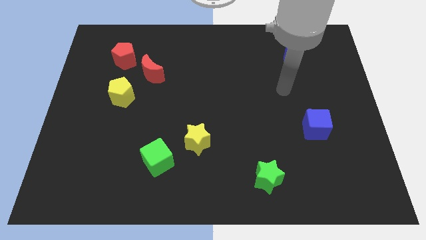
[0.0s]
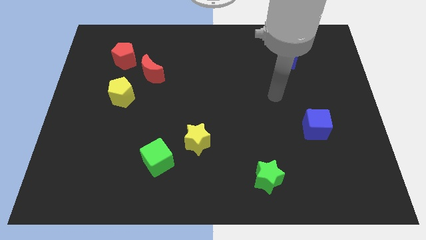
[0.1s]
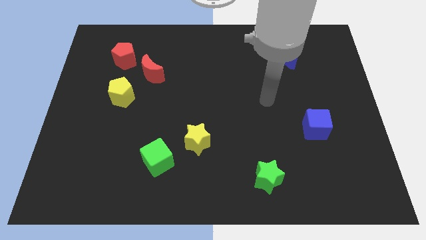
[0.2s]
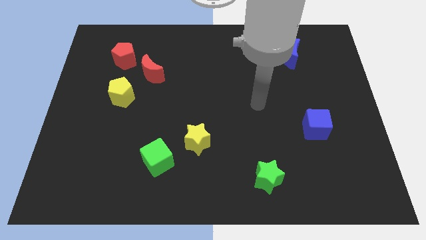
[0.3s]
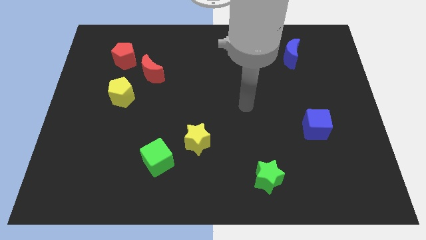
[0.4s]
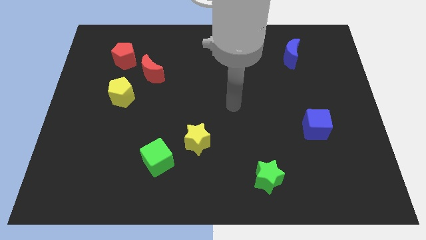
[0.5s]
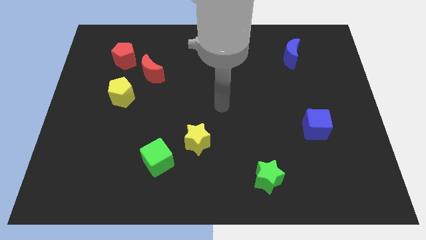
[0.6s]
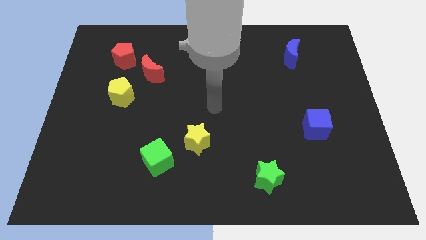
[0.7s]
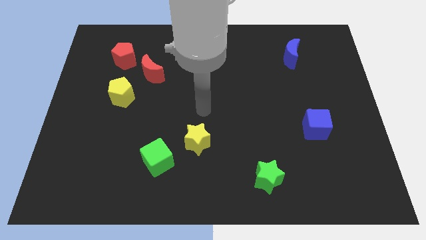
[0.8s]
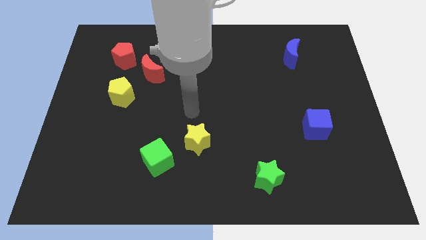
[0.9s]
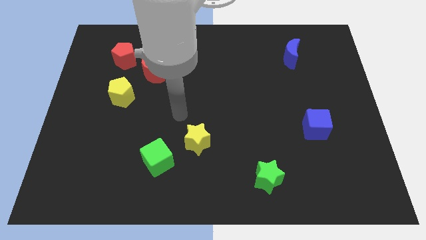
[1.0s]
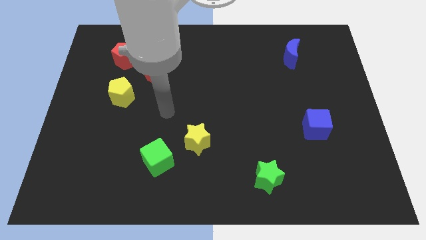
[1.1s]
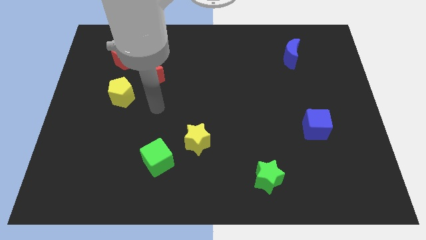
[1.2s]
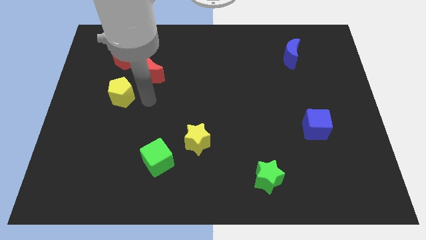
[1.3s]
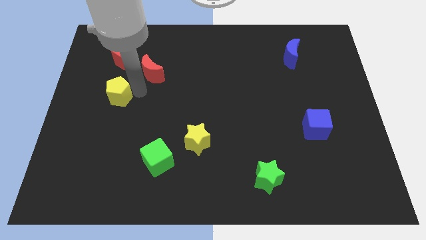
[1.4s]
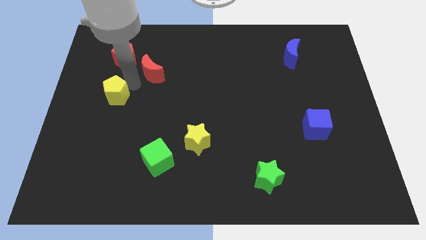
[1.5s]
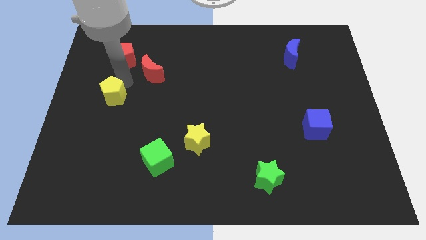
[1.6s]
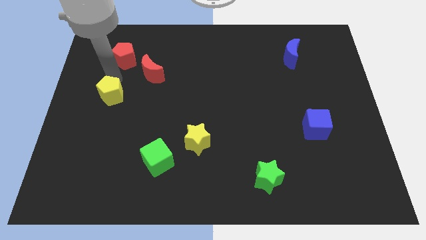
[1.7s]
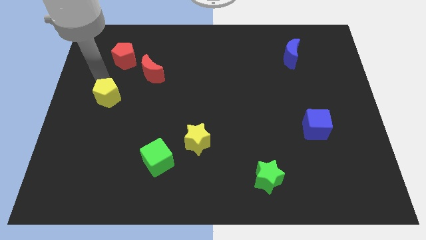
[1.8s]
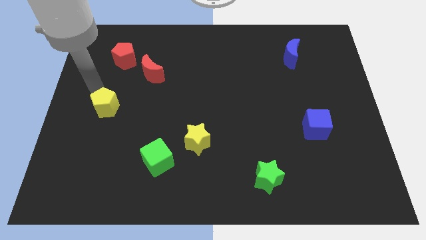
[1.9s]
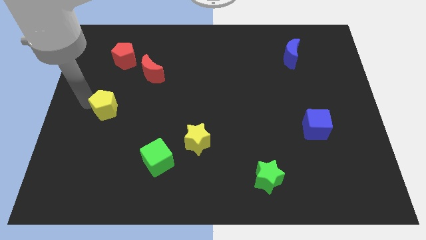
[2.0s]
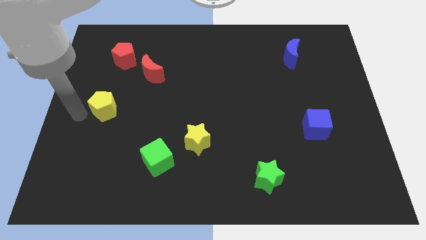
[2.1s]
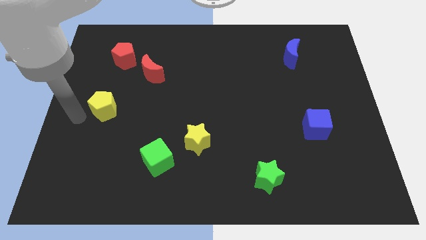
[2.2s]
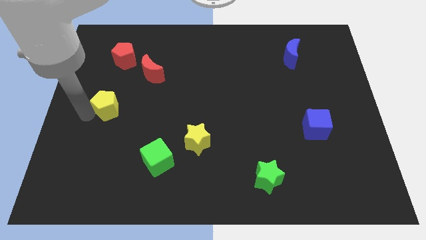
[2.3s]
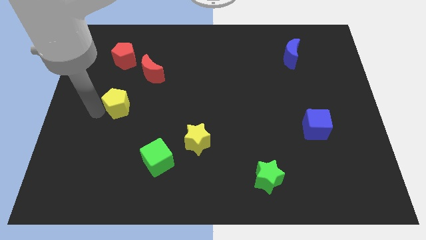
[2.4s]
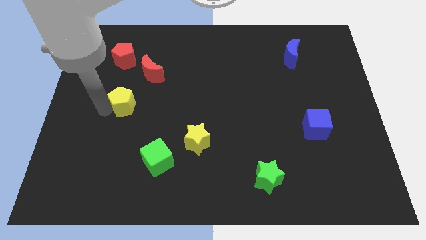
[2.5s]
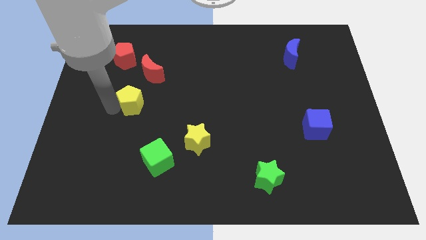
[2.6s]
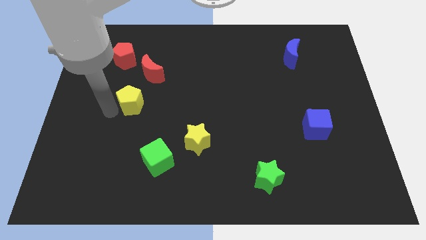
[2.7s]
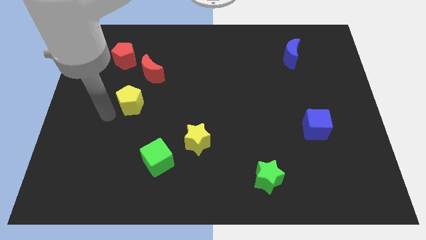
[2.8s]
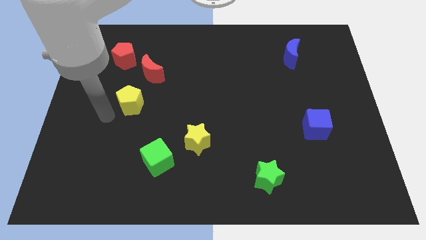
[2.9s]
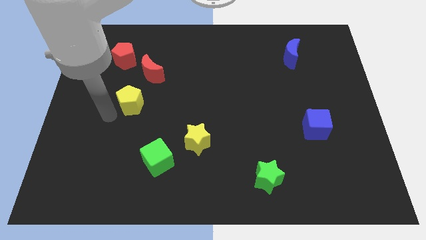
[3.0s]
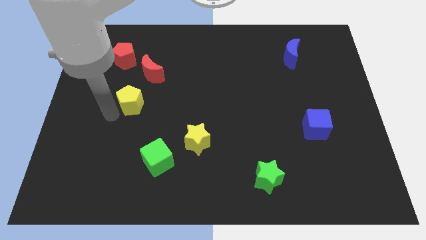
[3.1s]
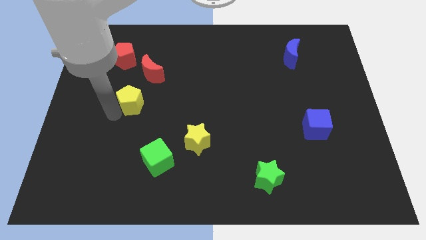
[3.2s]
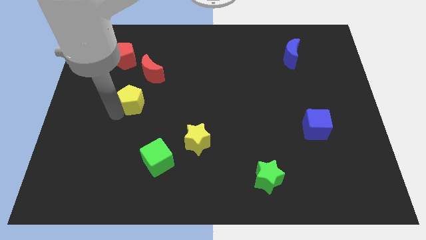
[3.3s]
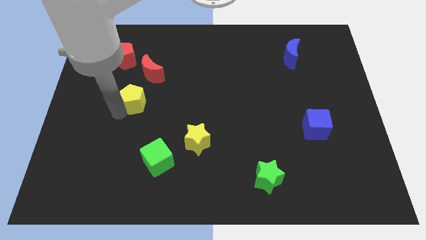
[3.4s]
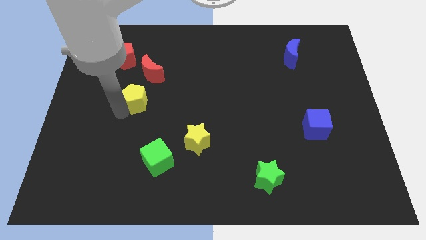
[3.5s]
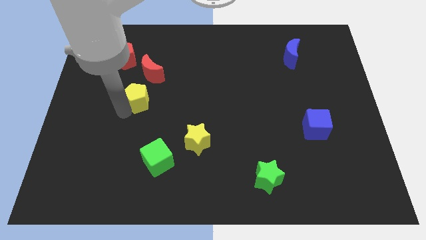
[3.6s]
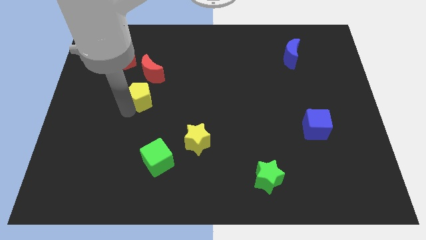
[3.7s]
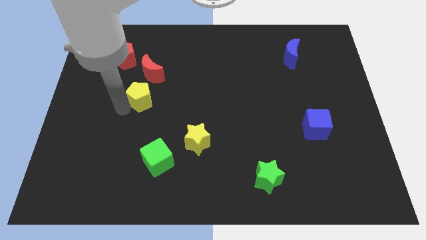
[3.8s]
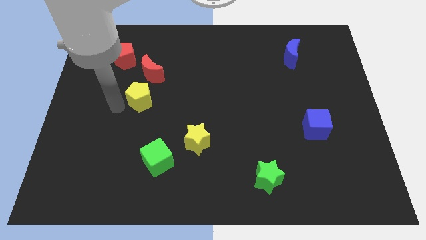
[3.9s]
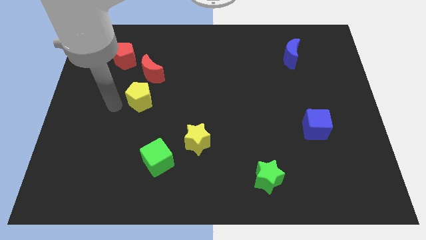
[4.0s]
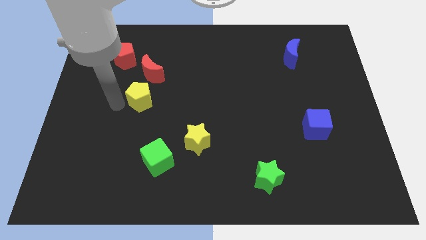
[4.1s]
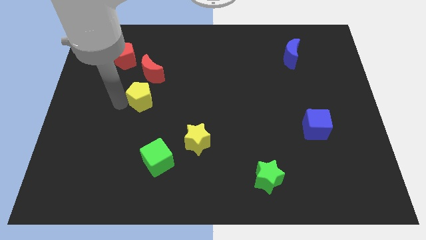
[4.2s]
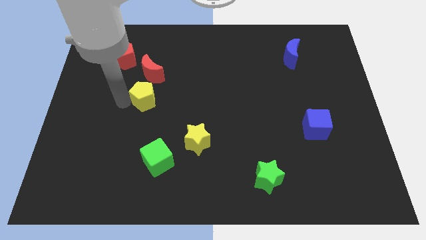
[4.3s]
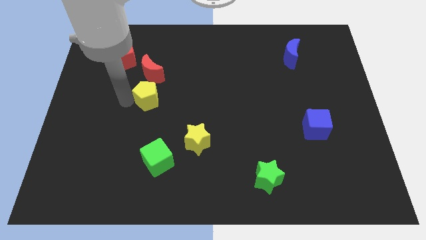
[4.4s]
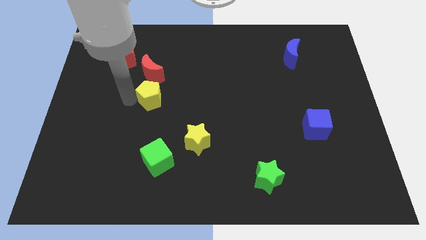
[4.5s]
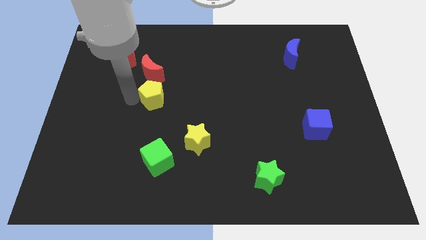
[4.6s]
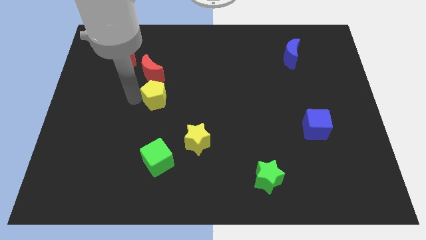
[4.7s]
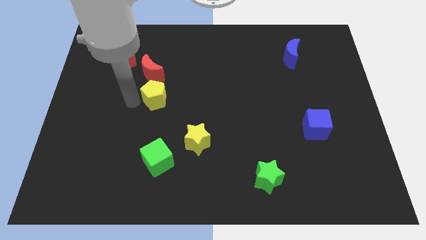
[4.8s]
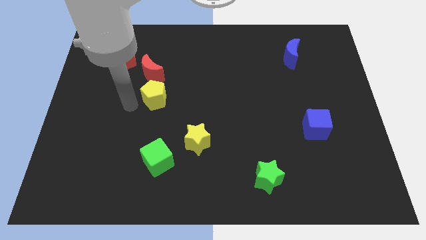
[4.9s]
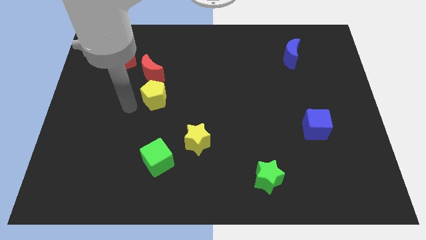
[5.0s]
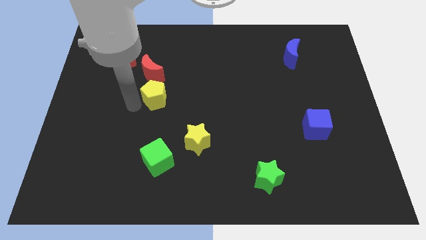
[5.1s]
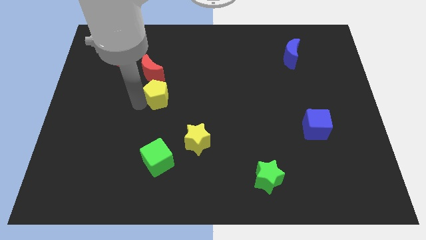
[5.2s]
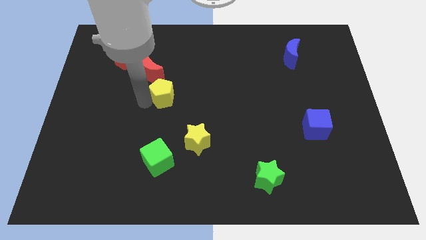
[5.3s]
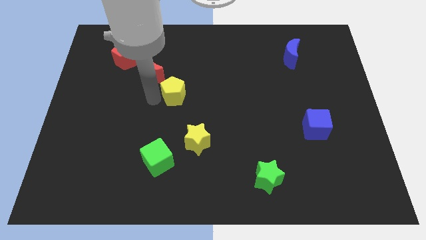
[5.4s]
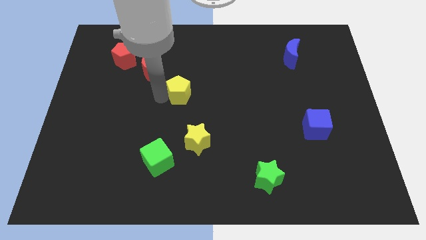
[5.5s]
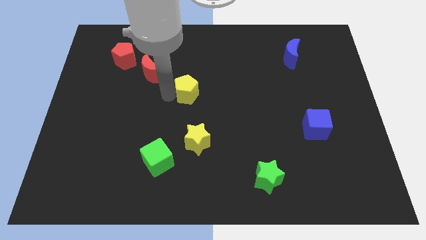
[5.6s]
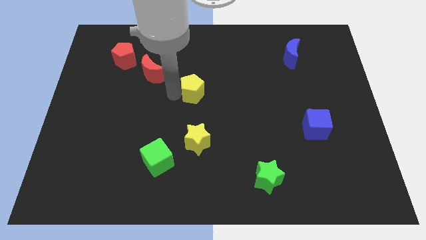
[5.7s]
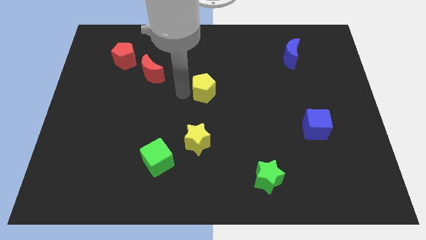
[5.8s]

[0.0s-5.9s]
push the yellow pentagon to the right

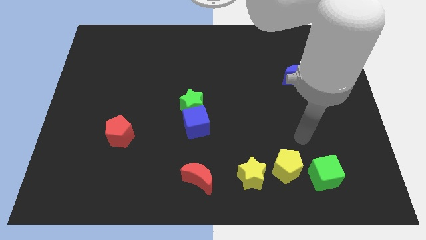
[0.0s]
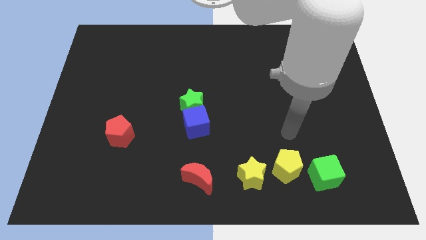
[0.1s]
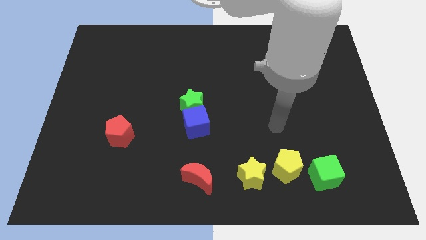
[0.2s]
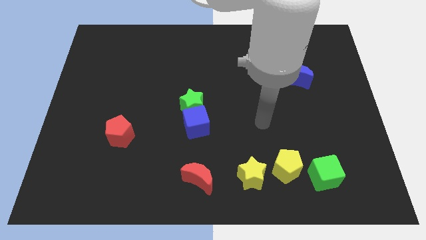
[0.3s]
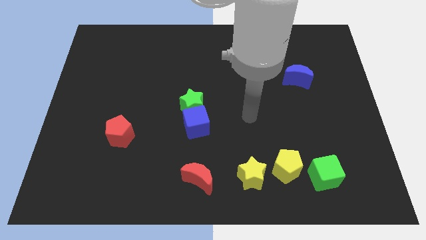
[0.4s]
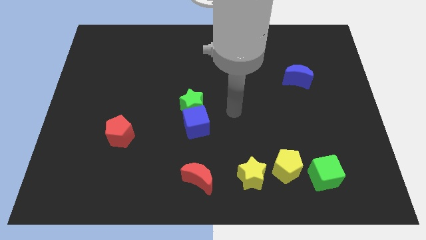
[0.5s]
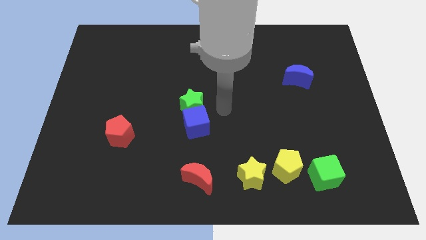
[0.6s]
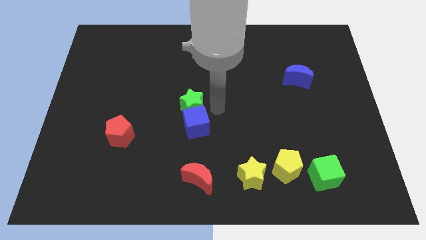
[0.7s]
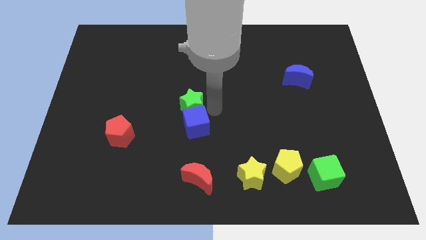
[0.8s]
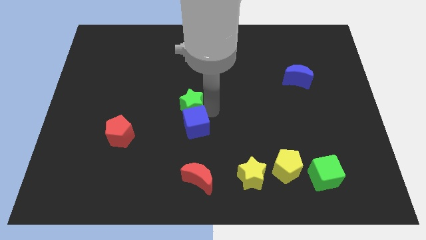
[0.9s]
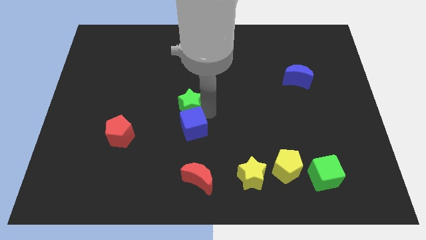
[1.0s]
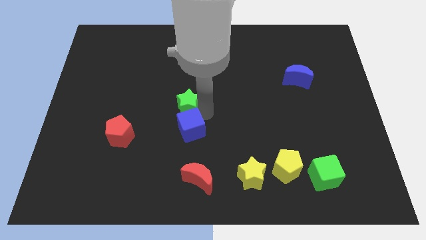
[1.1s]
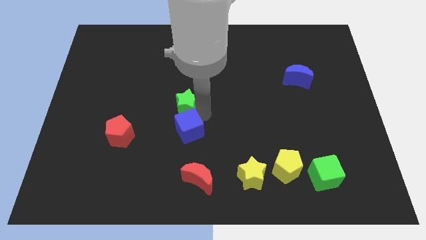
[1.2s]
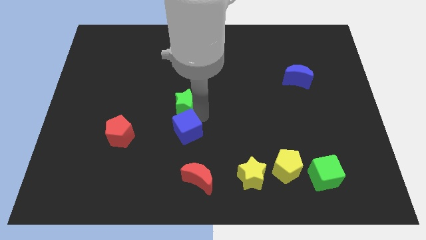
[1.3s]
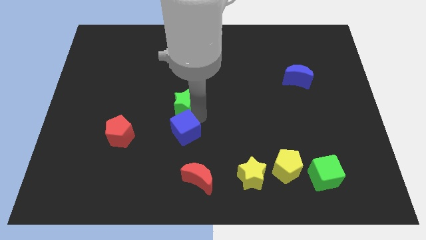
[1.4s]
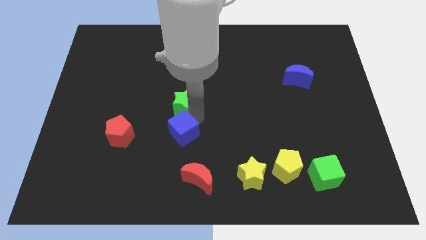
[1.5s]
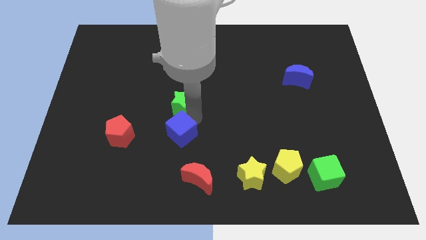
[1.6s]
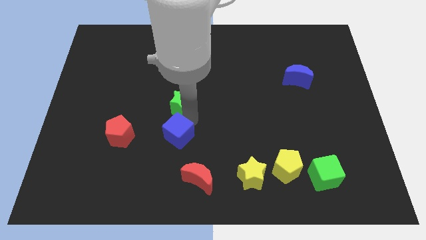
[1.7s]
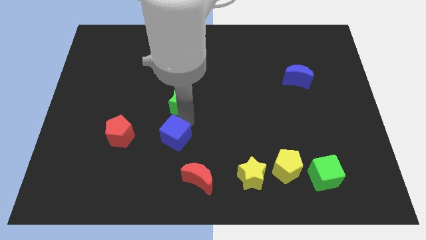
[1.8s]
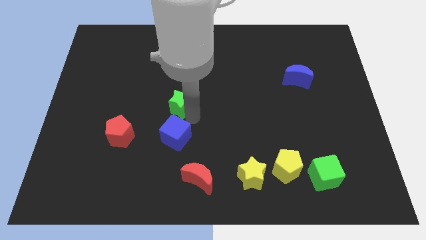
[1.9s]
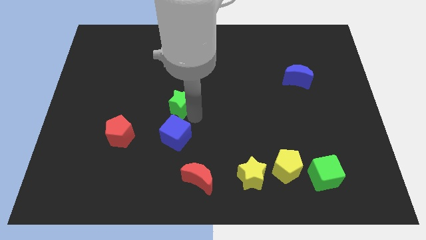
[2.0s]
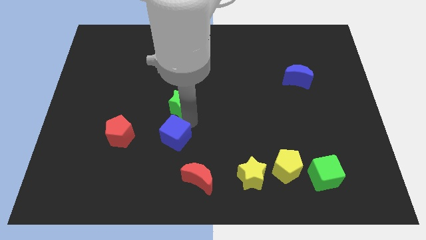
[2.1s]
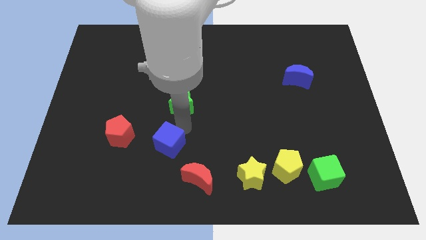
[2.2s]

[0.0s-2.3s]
slightly move the blue cube downwards and to the left

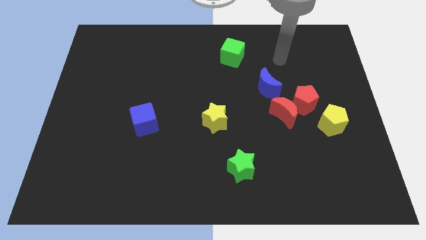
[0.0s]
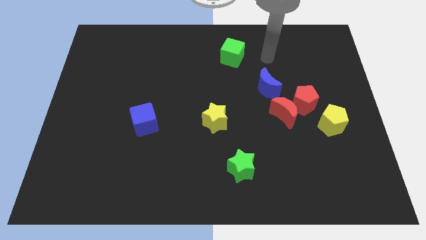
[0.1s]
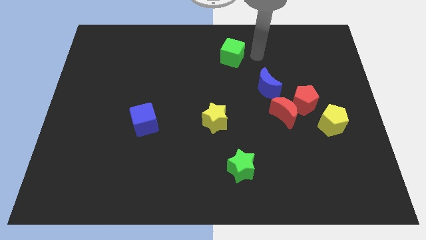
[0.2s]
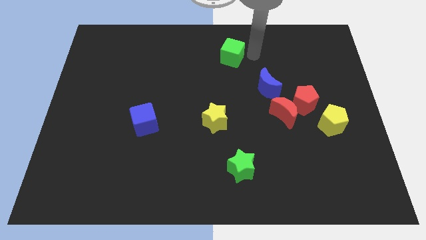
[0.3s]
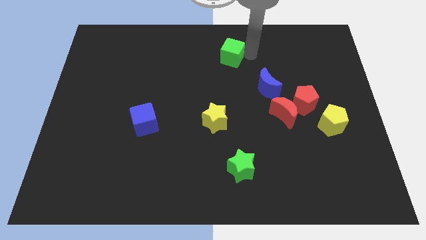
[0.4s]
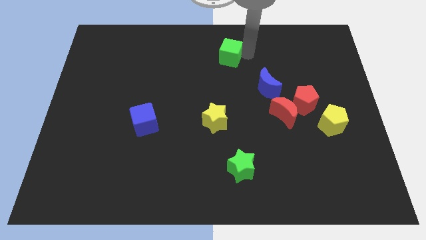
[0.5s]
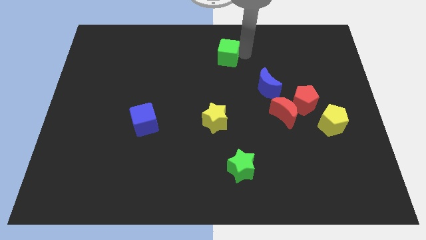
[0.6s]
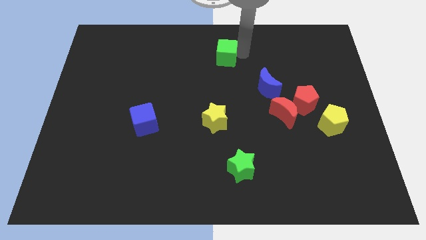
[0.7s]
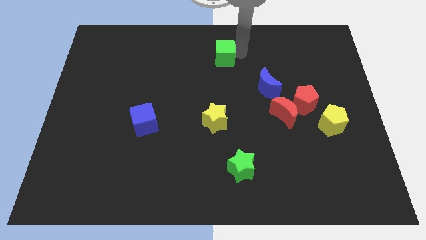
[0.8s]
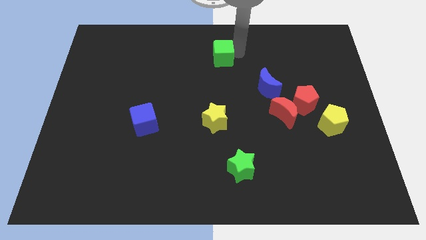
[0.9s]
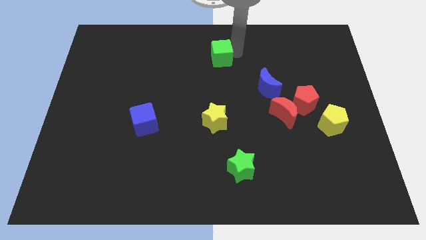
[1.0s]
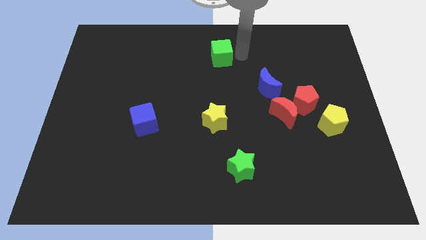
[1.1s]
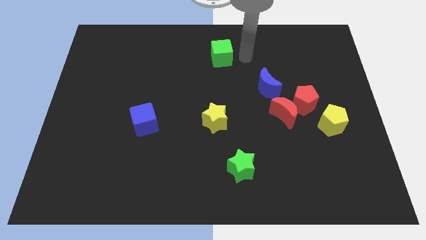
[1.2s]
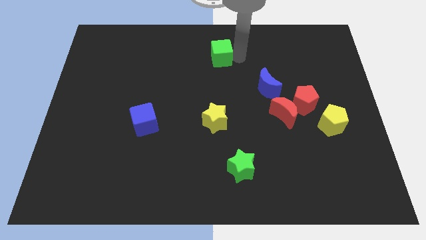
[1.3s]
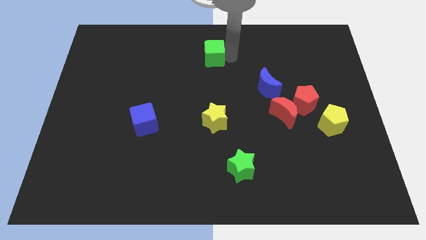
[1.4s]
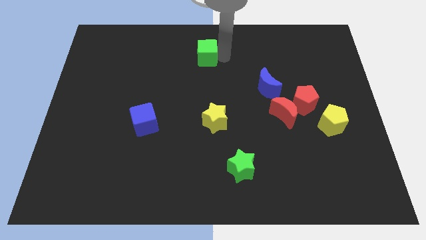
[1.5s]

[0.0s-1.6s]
push the green cube to the left a little bit
